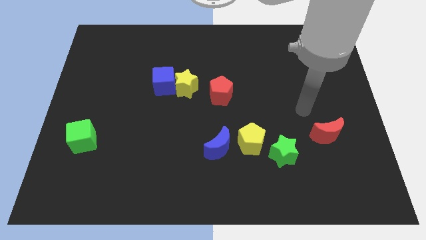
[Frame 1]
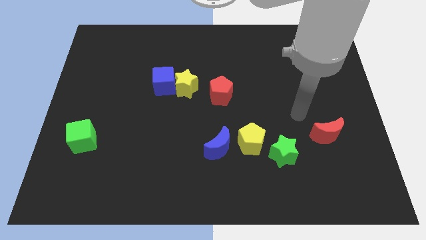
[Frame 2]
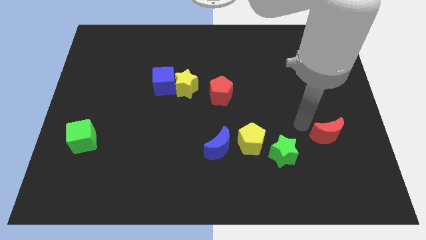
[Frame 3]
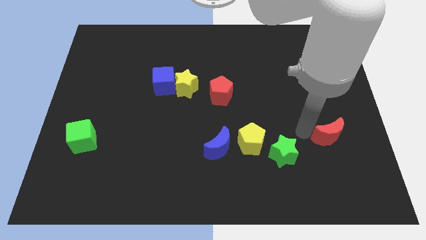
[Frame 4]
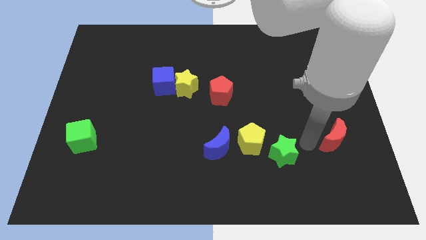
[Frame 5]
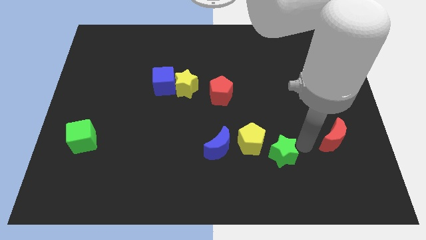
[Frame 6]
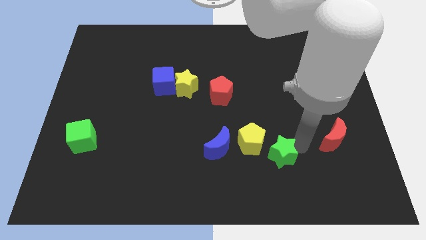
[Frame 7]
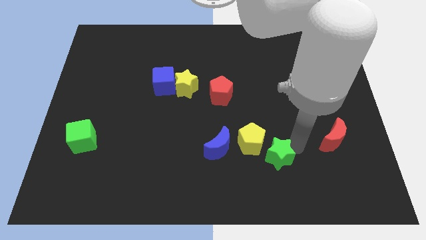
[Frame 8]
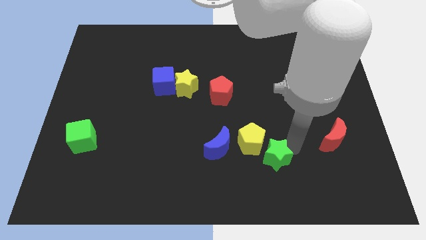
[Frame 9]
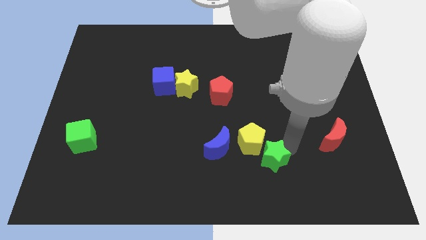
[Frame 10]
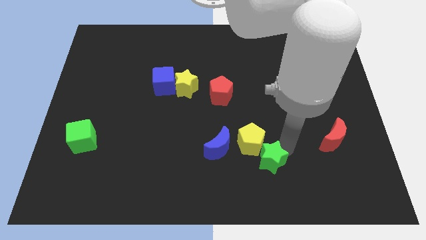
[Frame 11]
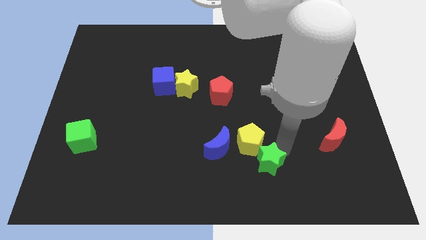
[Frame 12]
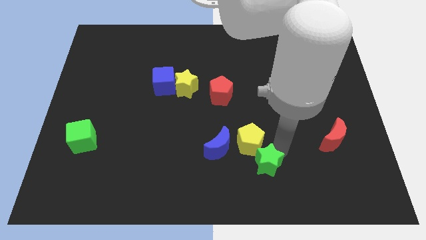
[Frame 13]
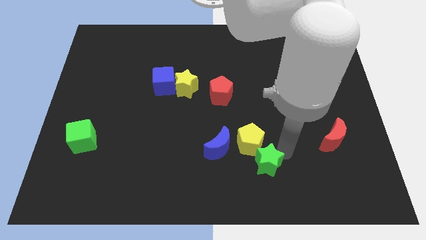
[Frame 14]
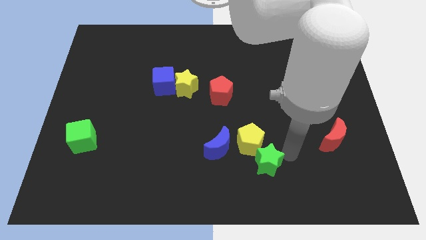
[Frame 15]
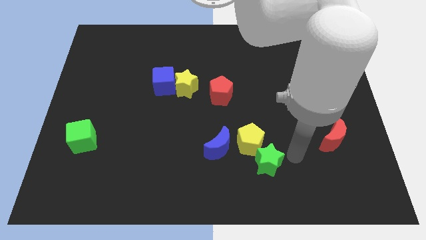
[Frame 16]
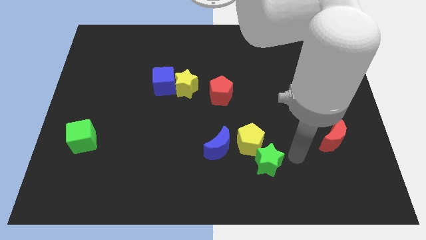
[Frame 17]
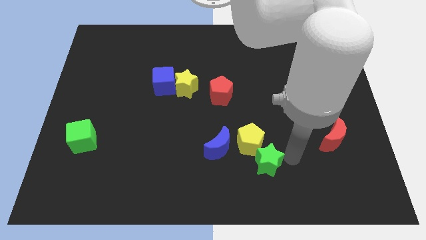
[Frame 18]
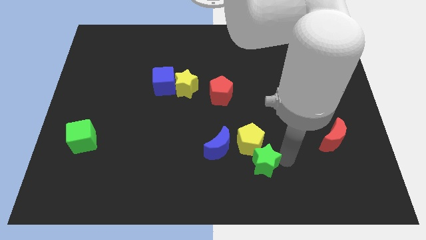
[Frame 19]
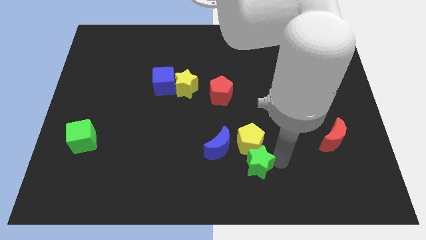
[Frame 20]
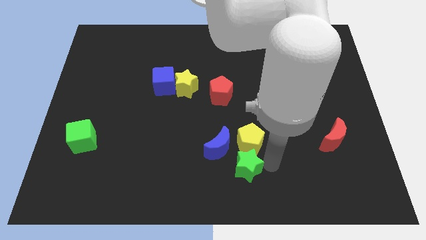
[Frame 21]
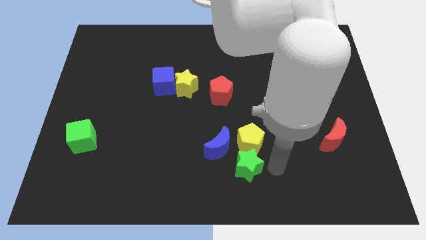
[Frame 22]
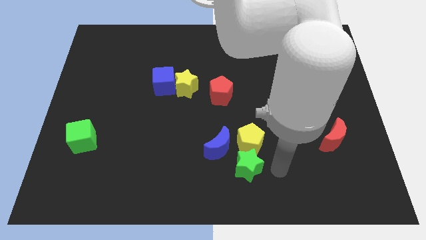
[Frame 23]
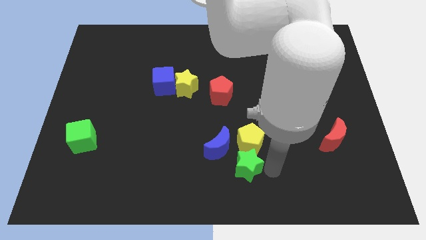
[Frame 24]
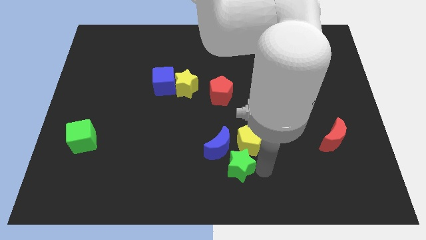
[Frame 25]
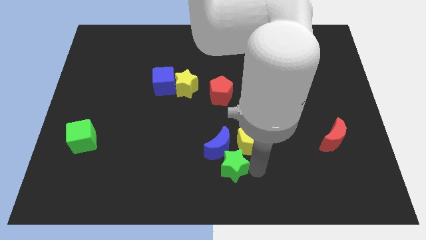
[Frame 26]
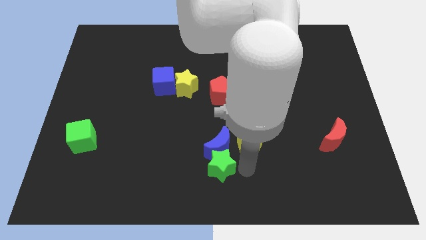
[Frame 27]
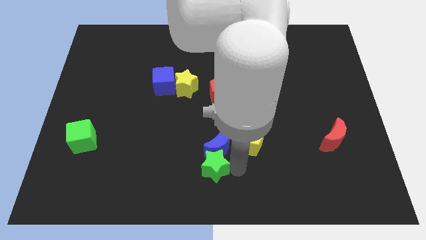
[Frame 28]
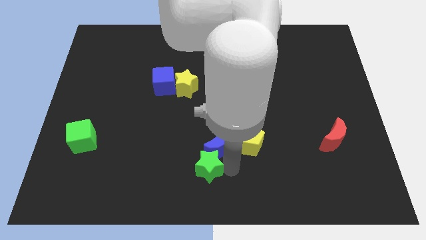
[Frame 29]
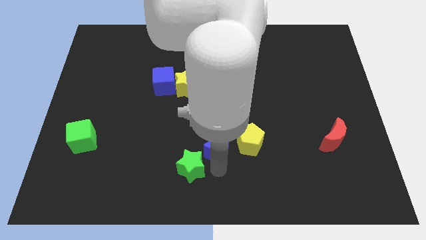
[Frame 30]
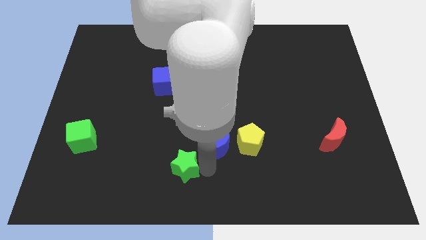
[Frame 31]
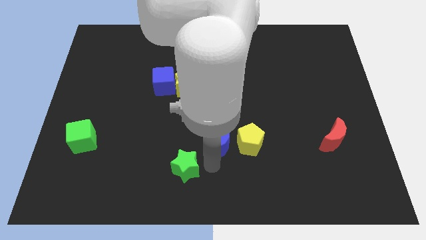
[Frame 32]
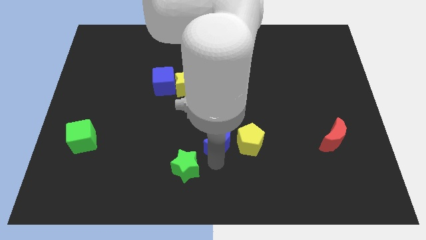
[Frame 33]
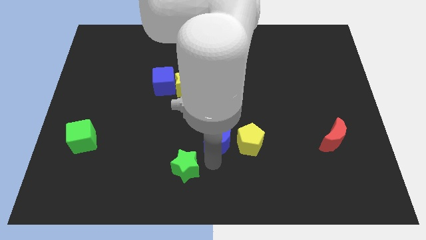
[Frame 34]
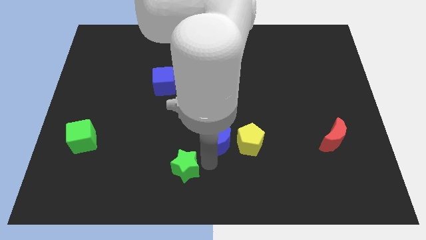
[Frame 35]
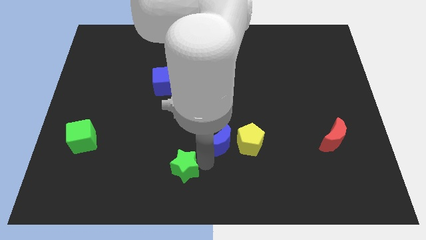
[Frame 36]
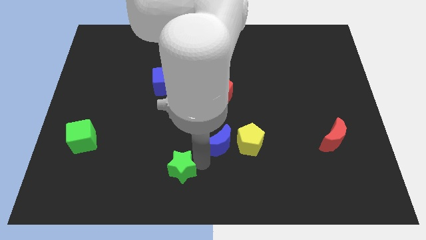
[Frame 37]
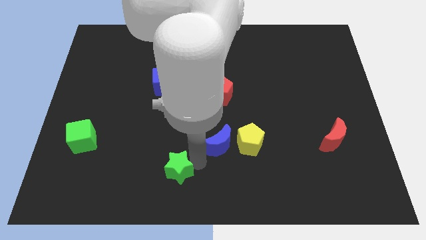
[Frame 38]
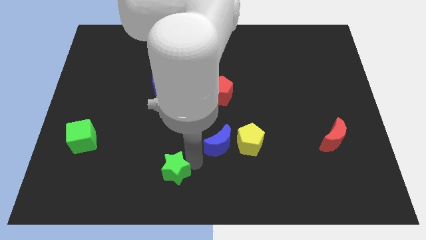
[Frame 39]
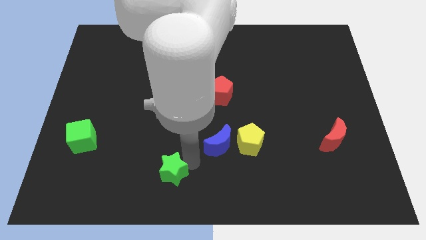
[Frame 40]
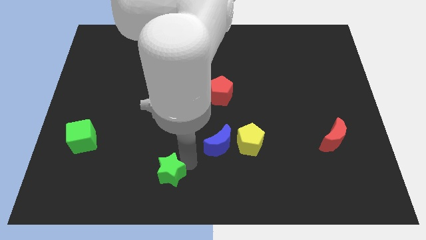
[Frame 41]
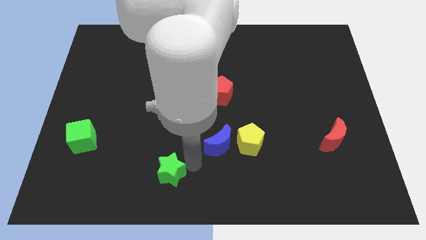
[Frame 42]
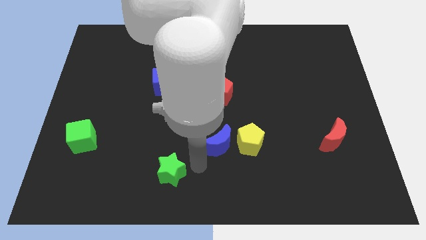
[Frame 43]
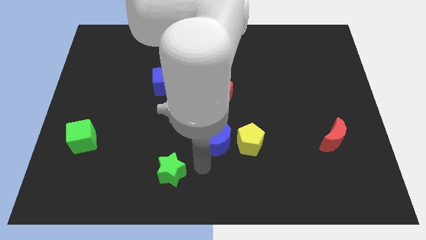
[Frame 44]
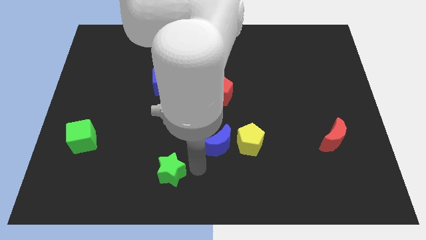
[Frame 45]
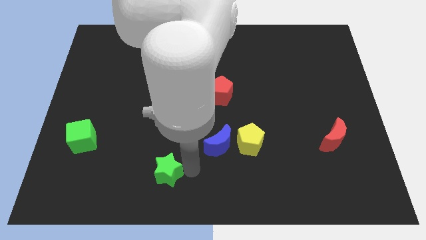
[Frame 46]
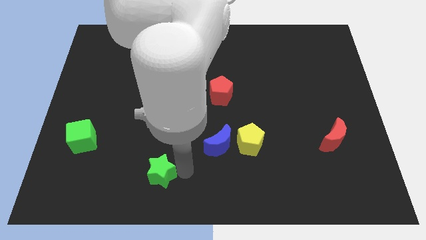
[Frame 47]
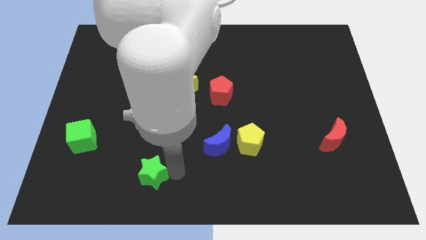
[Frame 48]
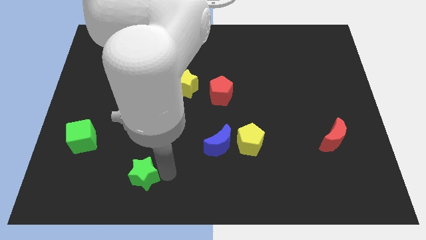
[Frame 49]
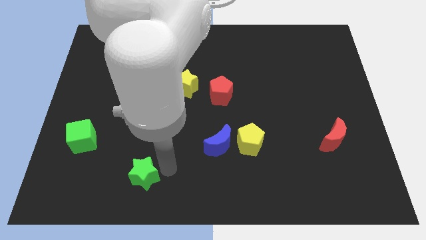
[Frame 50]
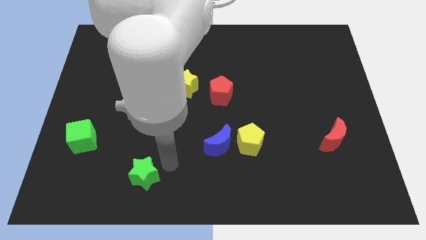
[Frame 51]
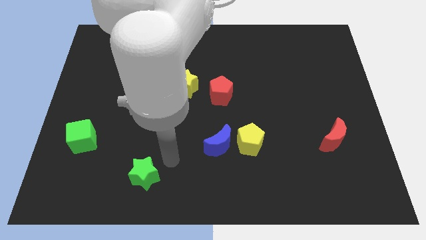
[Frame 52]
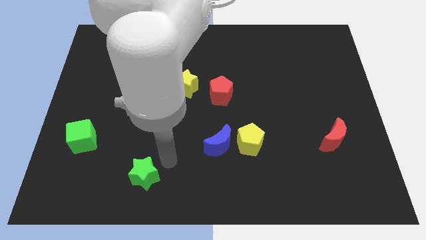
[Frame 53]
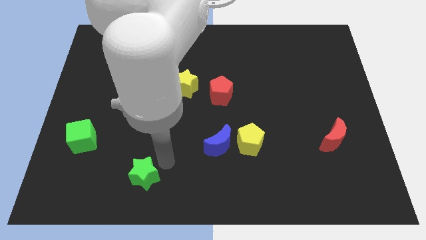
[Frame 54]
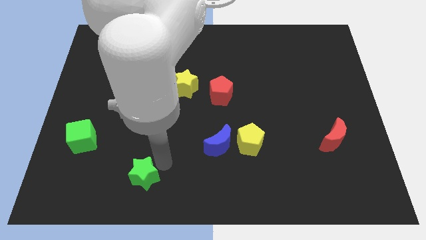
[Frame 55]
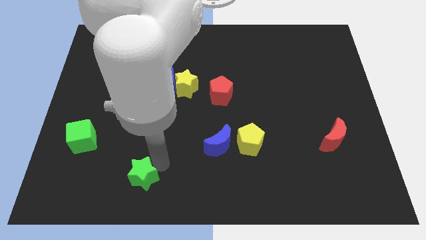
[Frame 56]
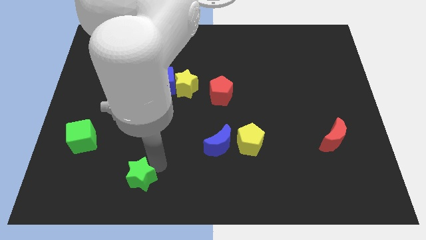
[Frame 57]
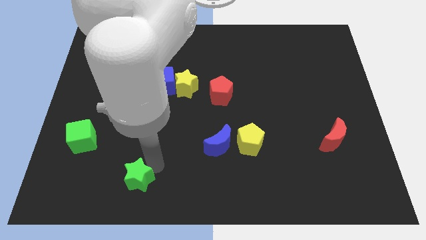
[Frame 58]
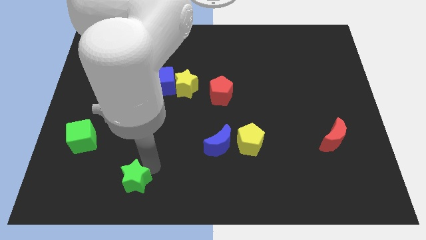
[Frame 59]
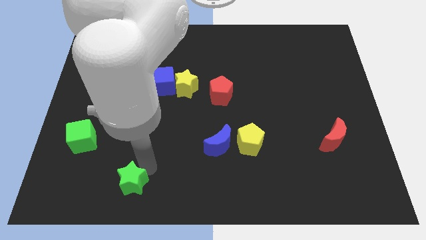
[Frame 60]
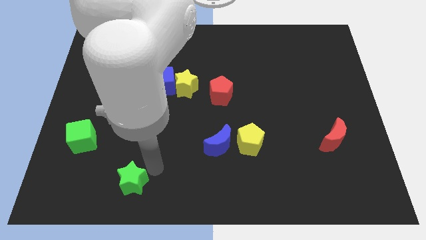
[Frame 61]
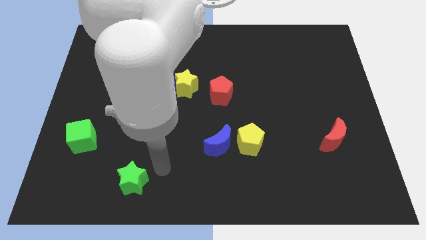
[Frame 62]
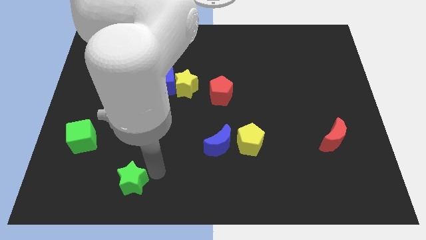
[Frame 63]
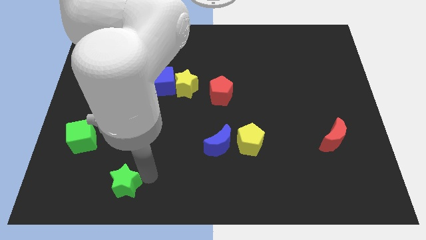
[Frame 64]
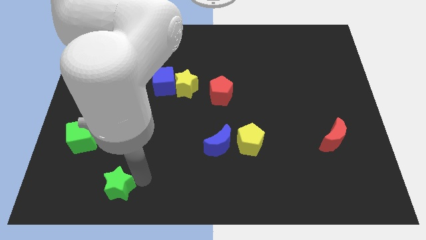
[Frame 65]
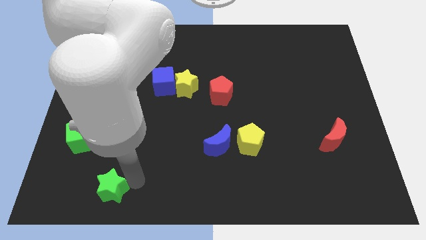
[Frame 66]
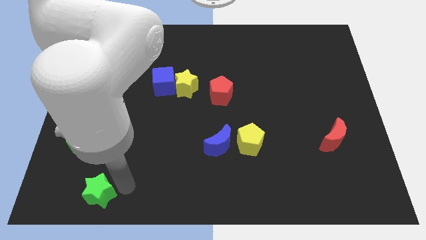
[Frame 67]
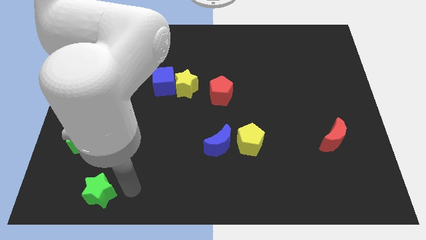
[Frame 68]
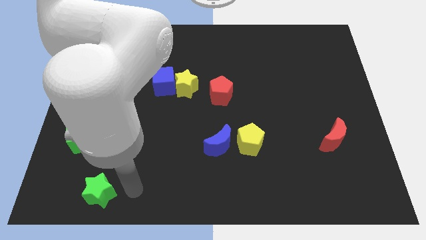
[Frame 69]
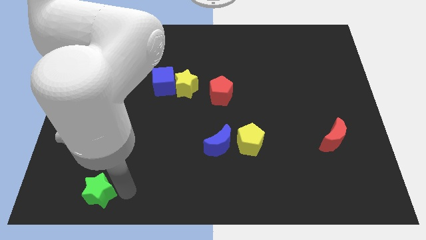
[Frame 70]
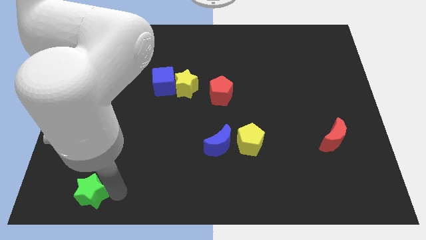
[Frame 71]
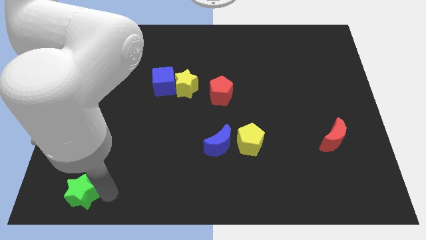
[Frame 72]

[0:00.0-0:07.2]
slide the green star to the bottom left of the board

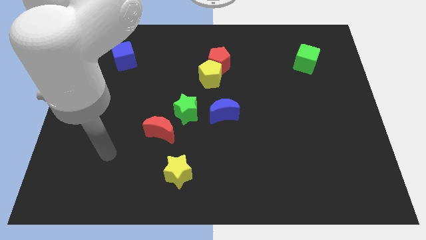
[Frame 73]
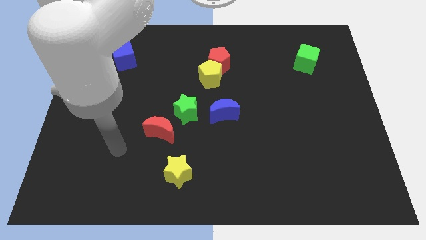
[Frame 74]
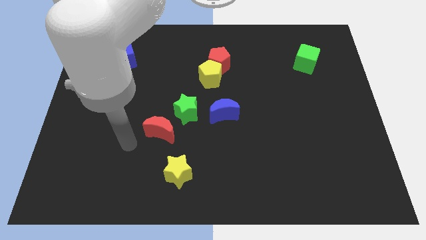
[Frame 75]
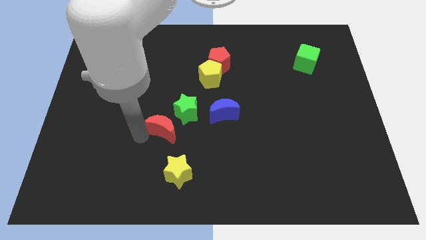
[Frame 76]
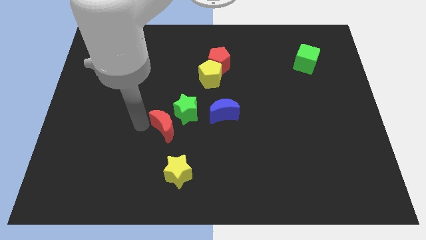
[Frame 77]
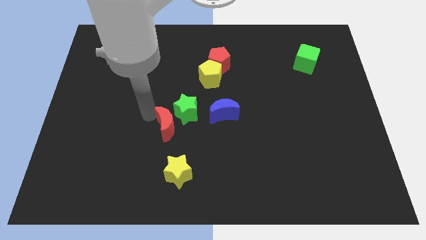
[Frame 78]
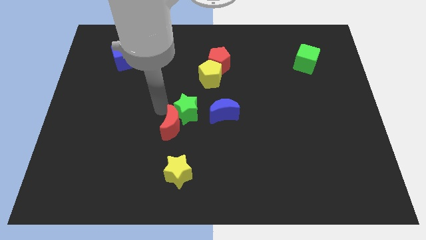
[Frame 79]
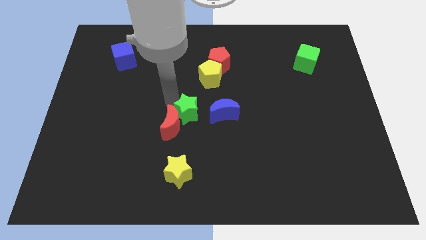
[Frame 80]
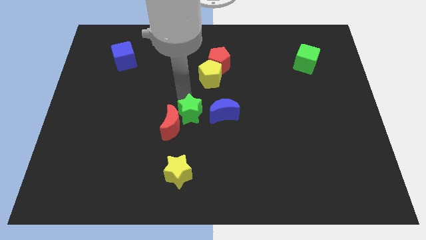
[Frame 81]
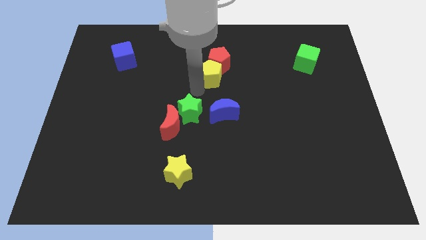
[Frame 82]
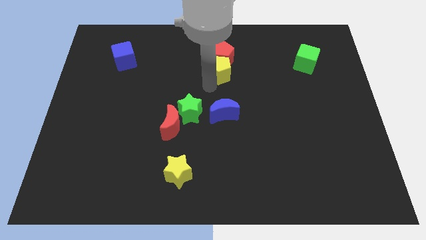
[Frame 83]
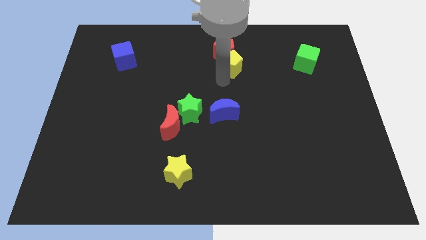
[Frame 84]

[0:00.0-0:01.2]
push the red pentagon to the top

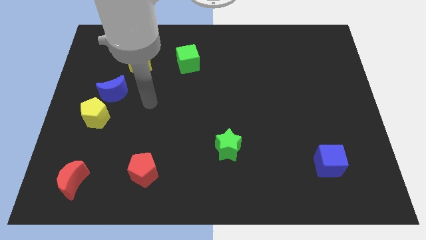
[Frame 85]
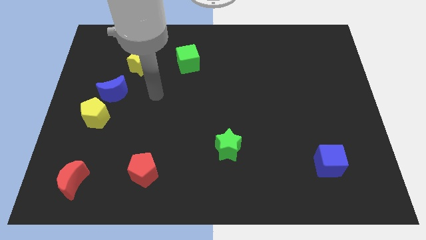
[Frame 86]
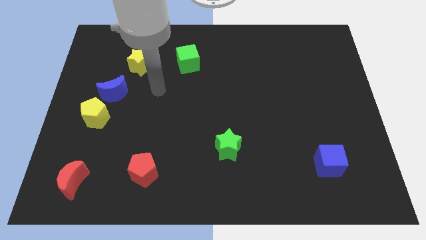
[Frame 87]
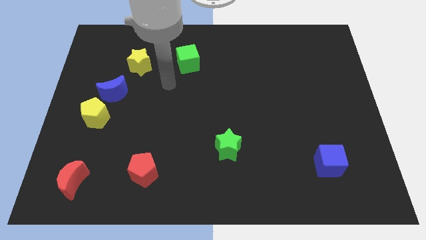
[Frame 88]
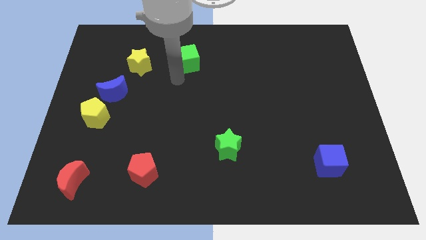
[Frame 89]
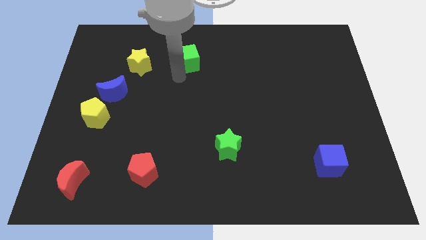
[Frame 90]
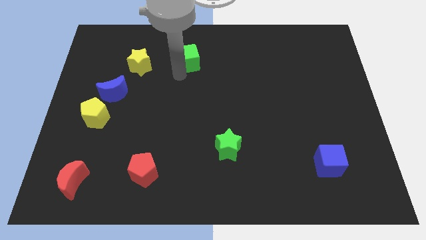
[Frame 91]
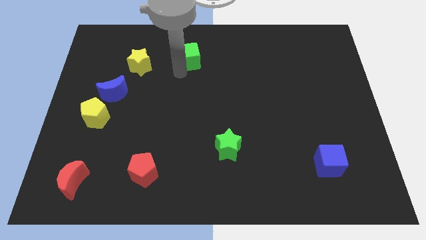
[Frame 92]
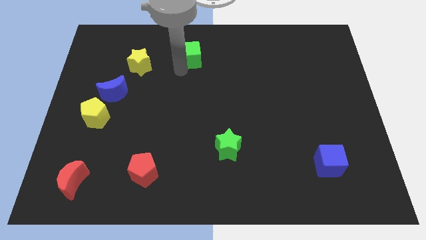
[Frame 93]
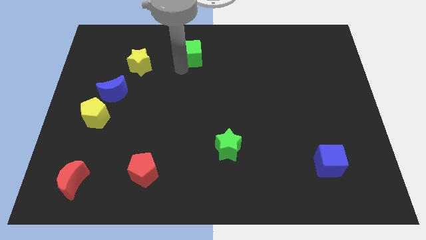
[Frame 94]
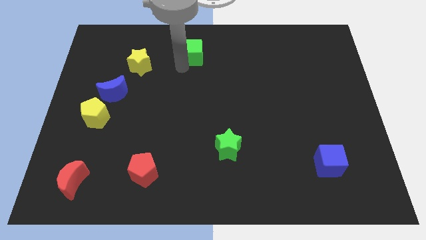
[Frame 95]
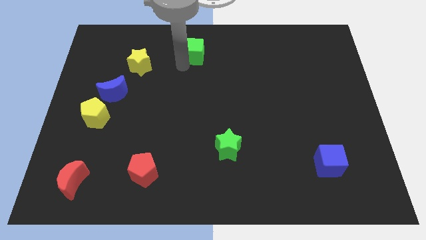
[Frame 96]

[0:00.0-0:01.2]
slide the green cube to the top side
